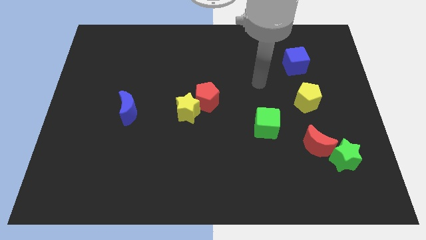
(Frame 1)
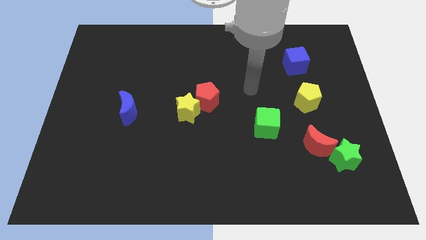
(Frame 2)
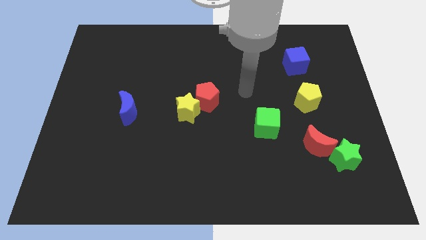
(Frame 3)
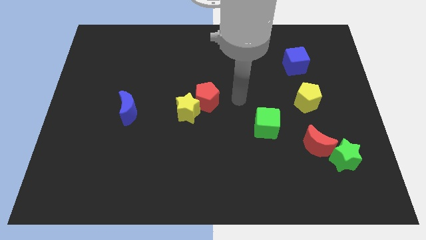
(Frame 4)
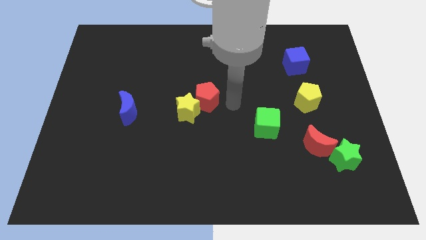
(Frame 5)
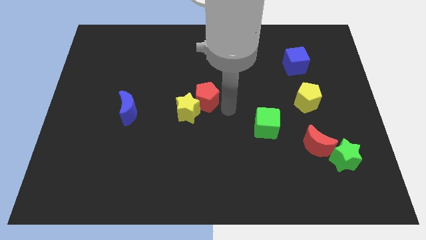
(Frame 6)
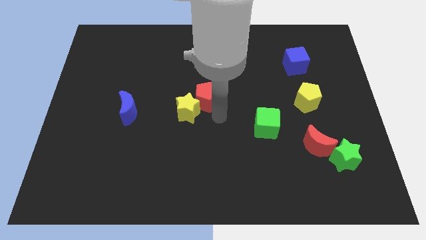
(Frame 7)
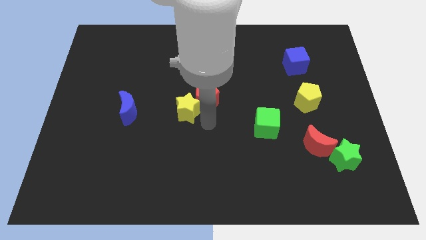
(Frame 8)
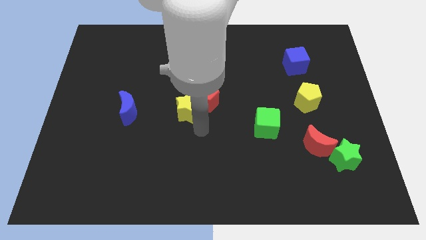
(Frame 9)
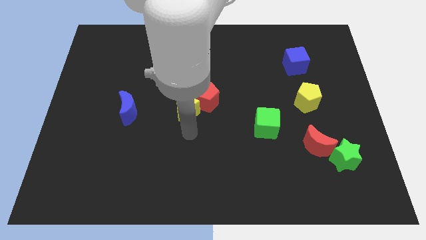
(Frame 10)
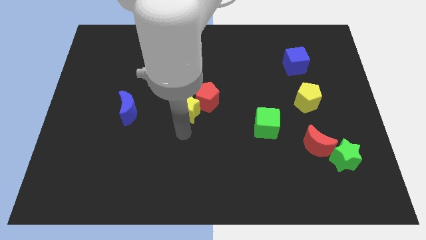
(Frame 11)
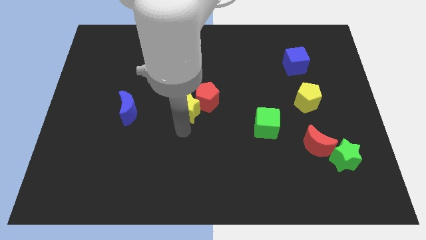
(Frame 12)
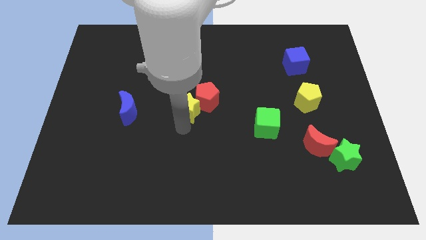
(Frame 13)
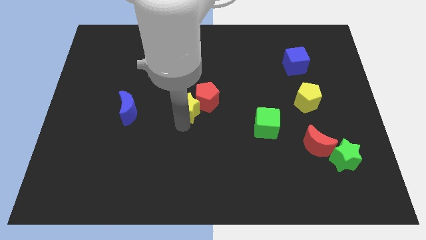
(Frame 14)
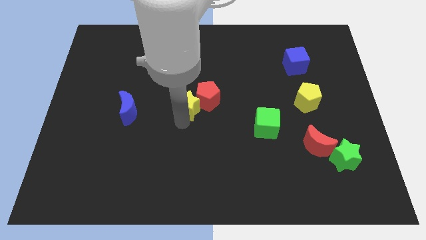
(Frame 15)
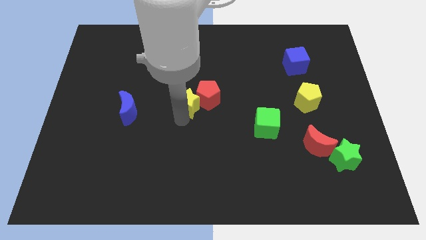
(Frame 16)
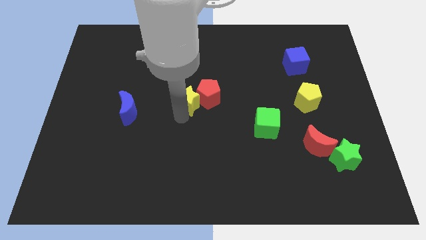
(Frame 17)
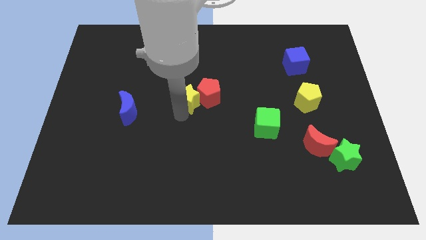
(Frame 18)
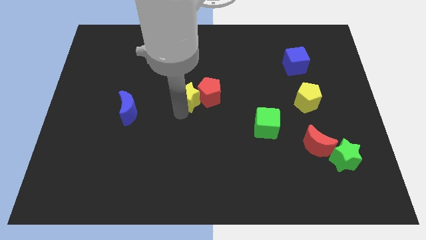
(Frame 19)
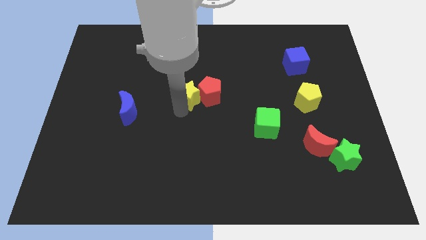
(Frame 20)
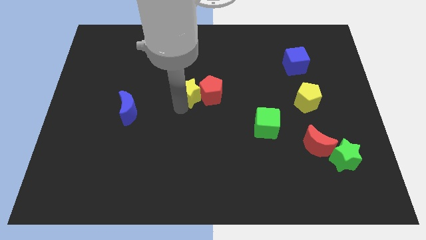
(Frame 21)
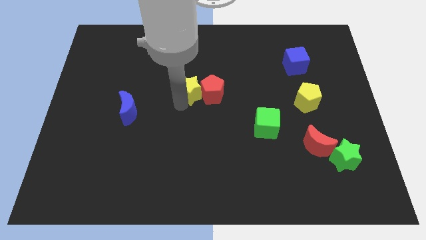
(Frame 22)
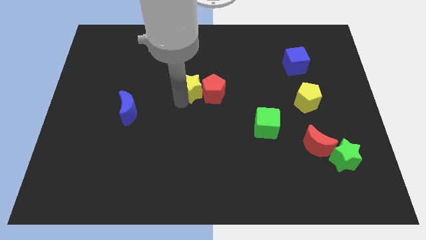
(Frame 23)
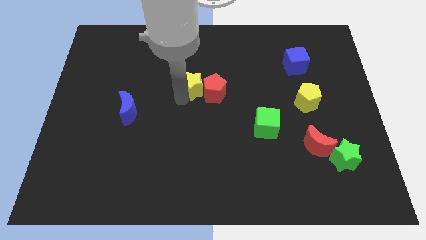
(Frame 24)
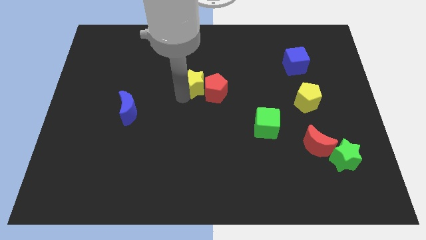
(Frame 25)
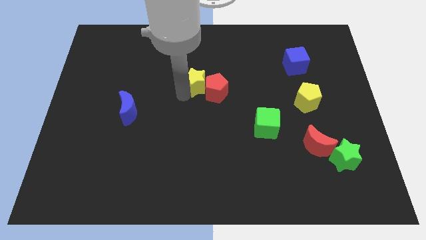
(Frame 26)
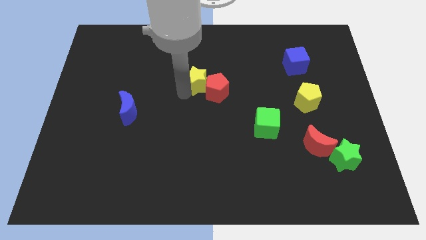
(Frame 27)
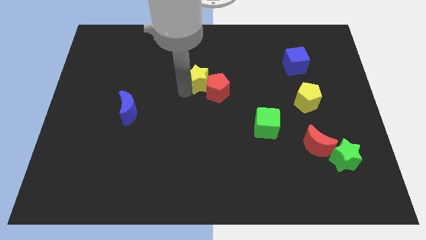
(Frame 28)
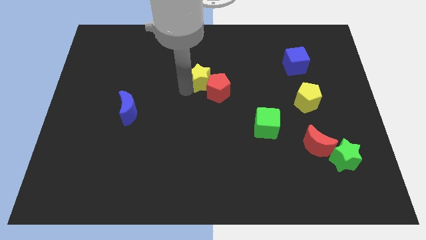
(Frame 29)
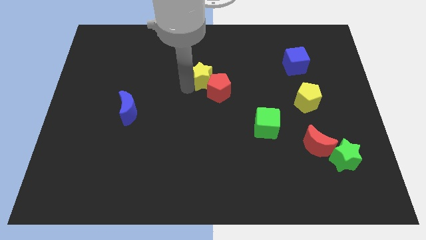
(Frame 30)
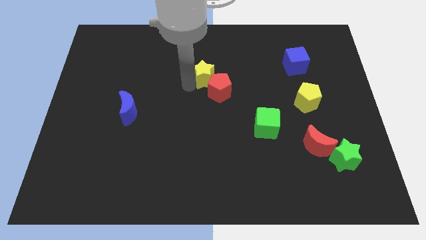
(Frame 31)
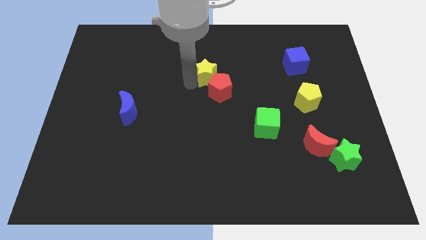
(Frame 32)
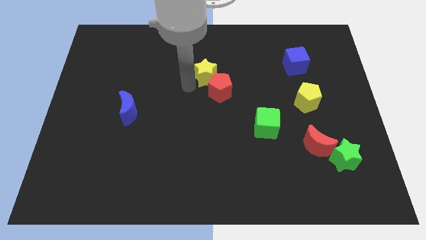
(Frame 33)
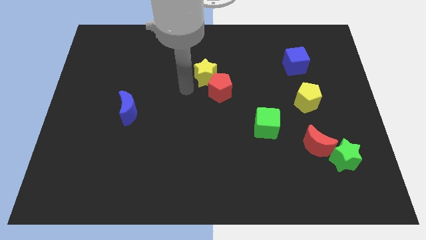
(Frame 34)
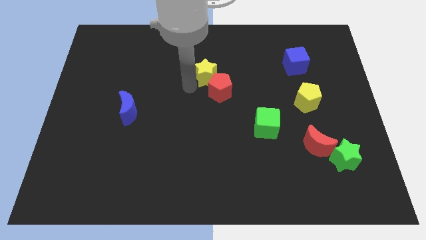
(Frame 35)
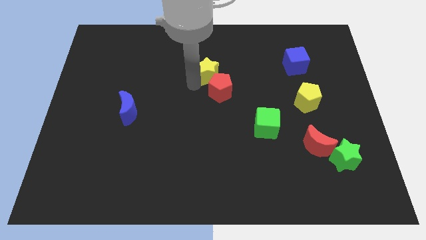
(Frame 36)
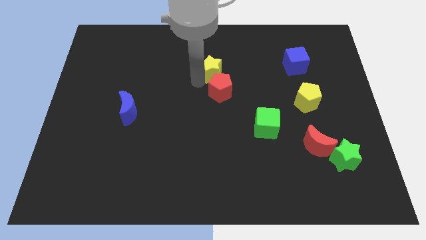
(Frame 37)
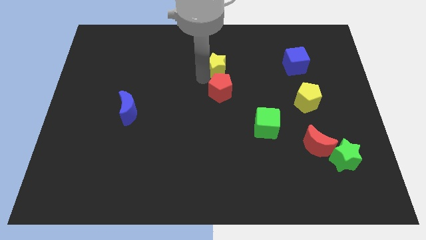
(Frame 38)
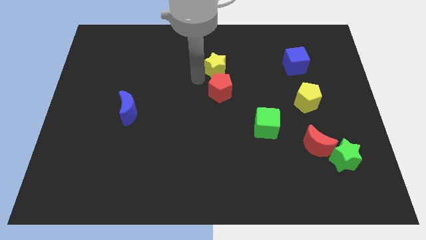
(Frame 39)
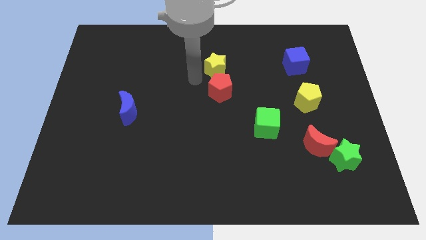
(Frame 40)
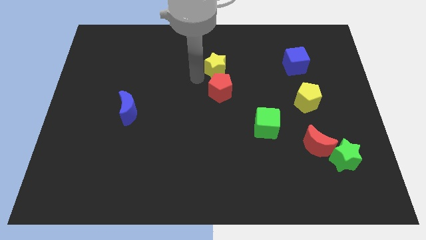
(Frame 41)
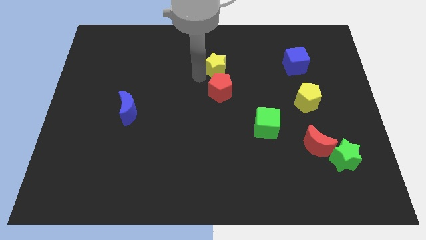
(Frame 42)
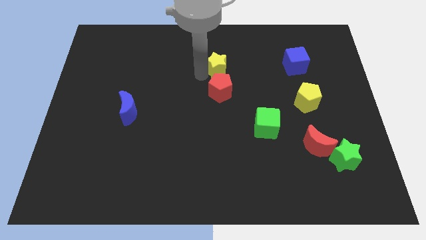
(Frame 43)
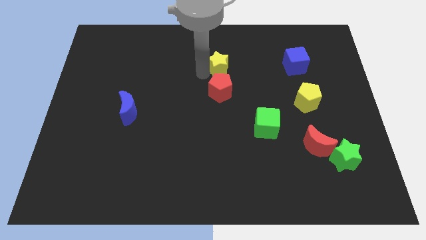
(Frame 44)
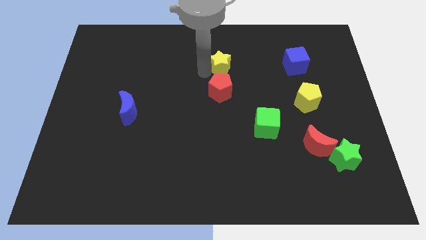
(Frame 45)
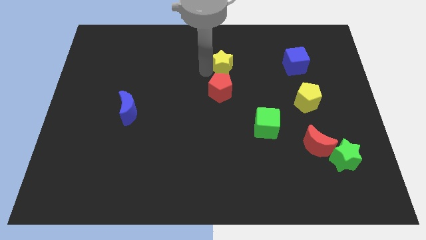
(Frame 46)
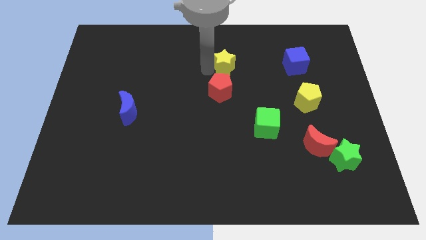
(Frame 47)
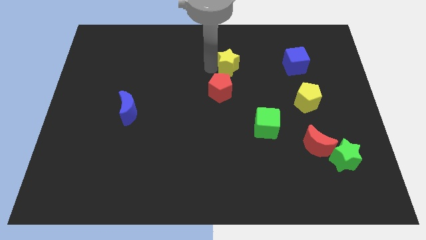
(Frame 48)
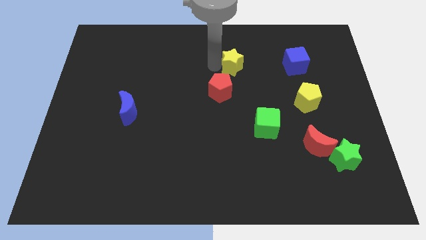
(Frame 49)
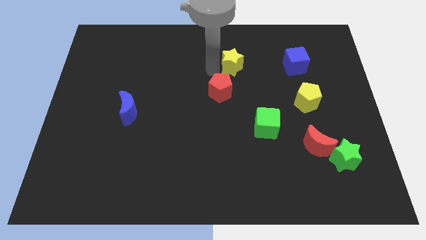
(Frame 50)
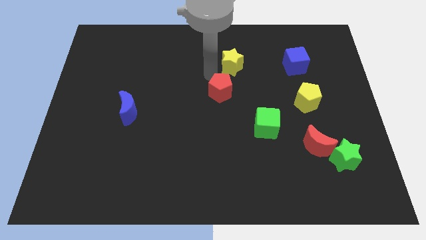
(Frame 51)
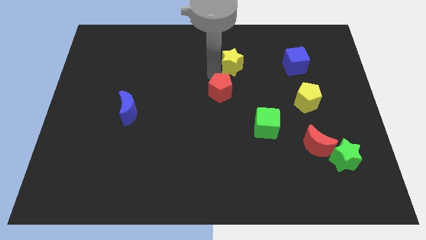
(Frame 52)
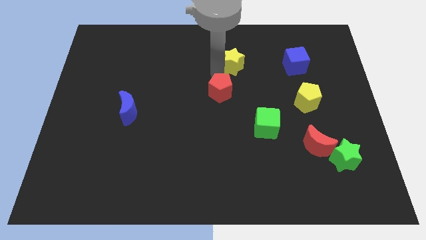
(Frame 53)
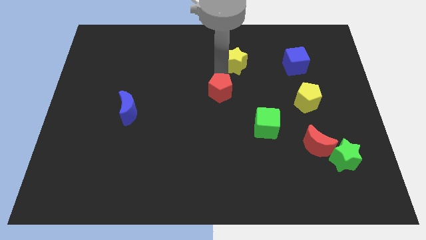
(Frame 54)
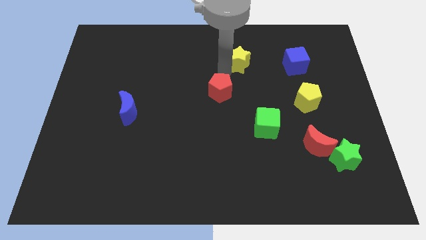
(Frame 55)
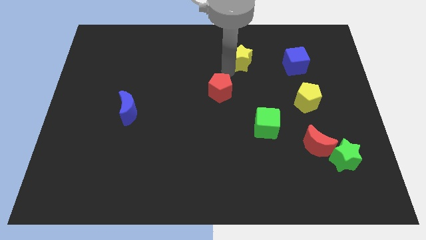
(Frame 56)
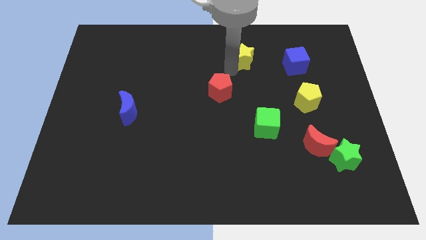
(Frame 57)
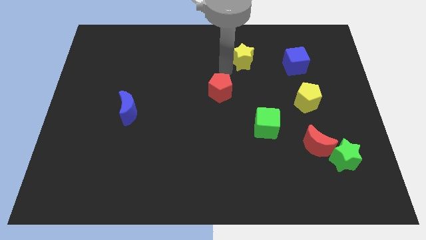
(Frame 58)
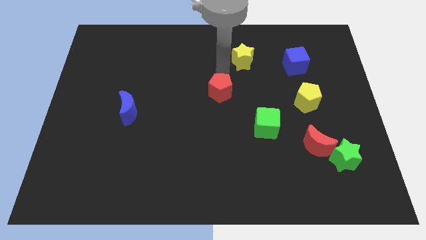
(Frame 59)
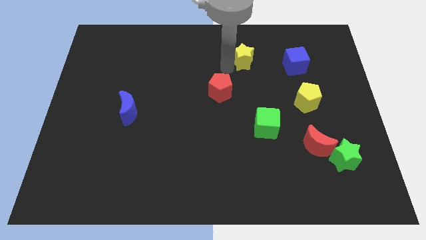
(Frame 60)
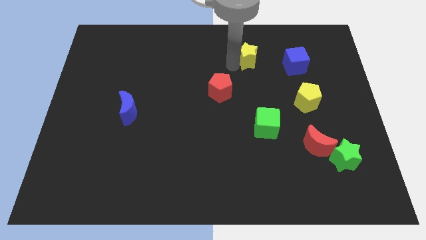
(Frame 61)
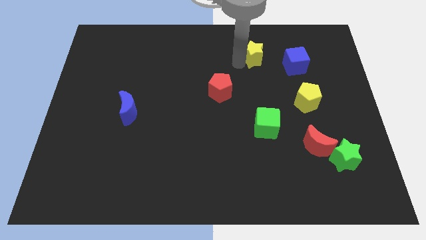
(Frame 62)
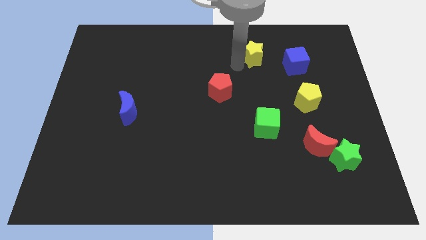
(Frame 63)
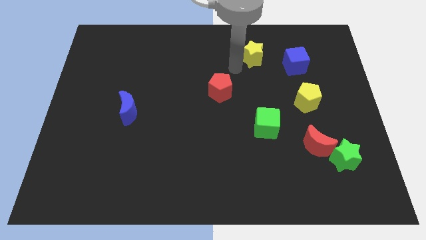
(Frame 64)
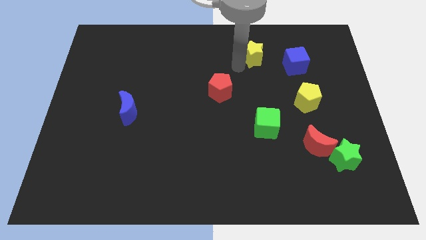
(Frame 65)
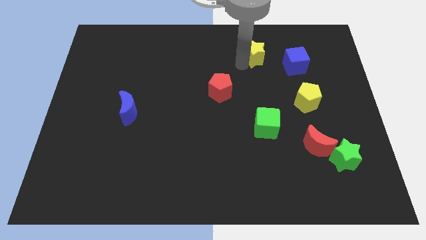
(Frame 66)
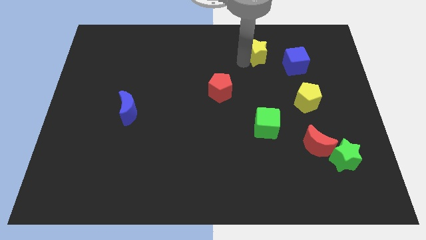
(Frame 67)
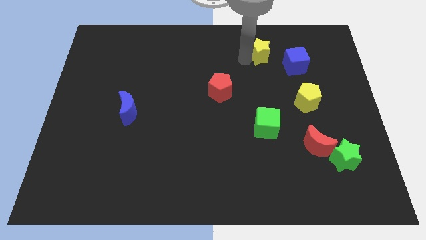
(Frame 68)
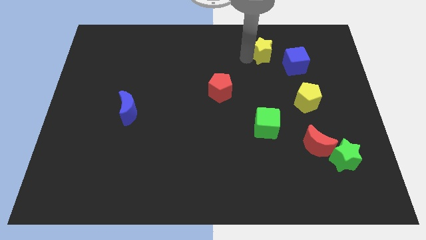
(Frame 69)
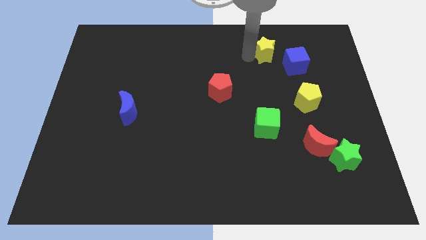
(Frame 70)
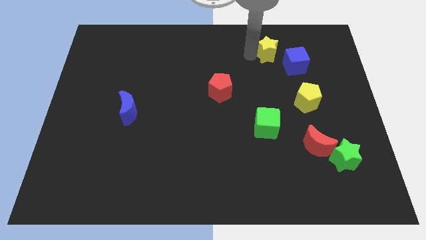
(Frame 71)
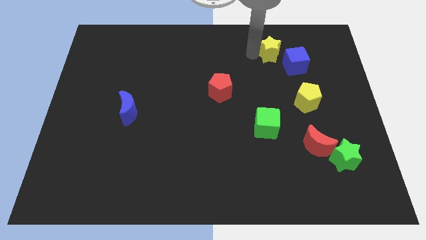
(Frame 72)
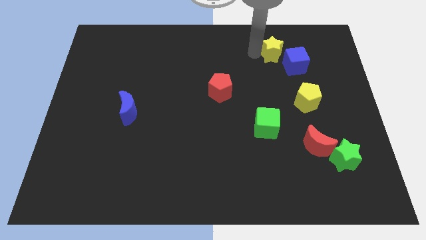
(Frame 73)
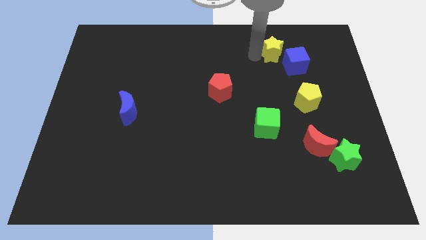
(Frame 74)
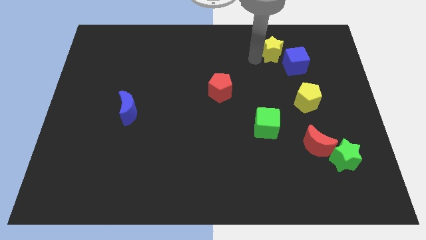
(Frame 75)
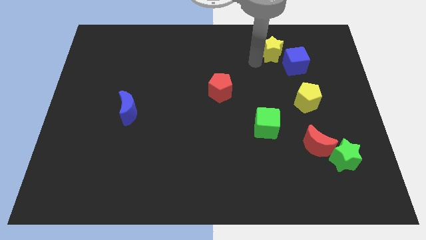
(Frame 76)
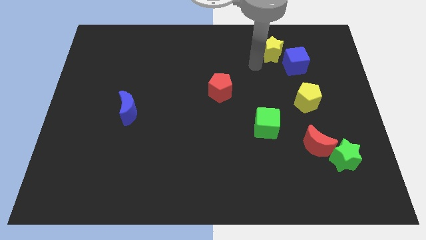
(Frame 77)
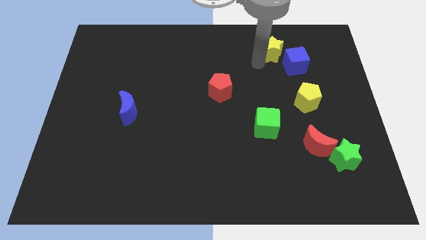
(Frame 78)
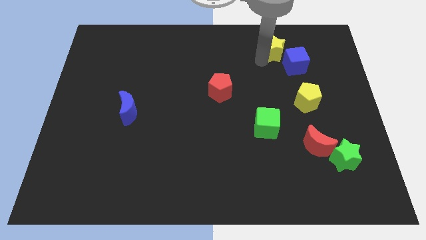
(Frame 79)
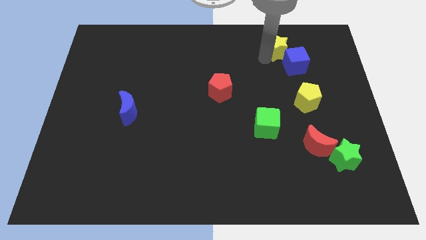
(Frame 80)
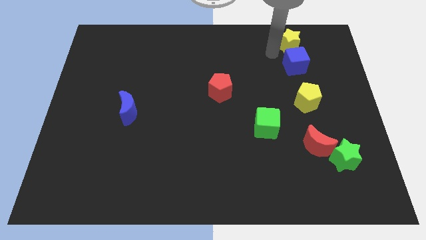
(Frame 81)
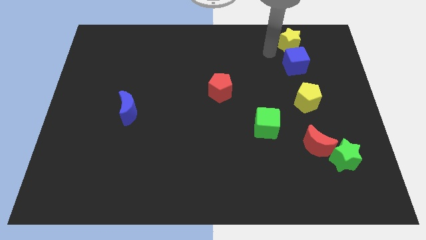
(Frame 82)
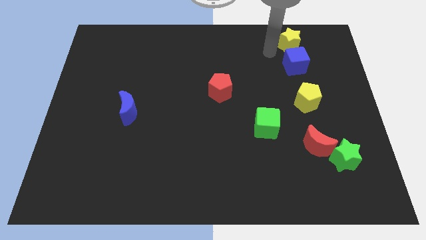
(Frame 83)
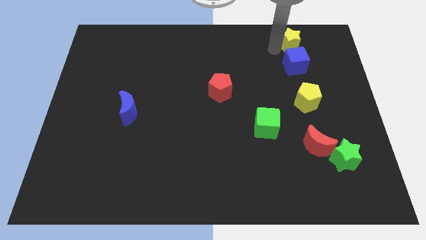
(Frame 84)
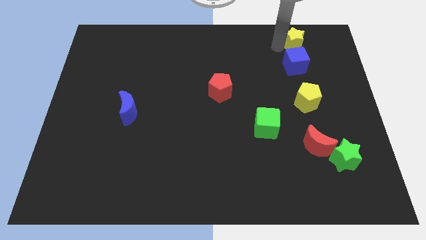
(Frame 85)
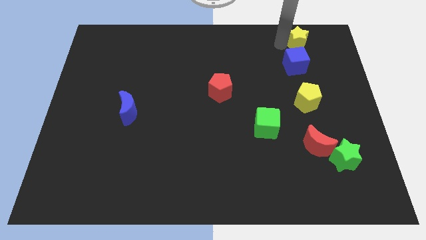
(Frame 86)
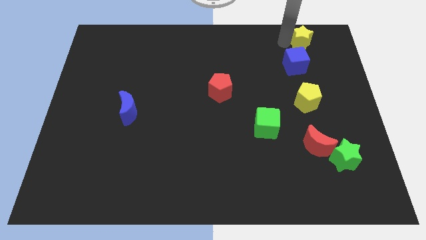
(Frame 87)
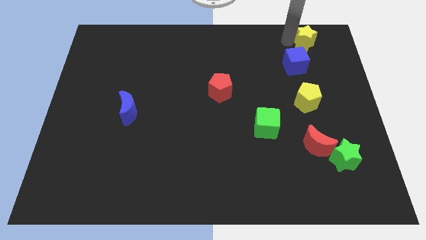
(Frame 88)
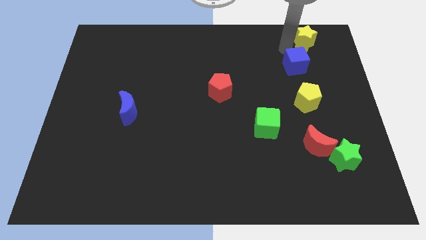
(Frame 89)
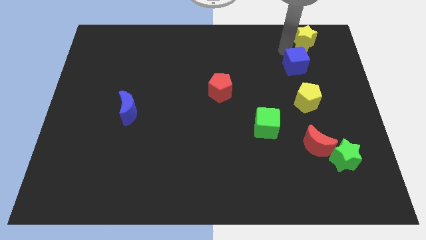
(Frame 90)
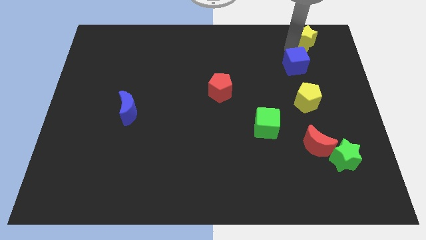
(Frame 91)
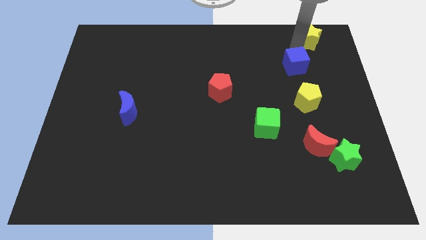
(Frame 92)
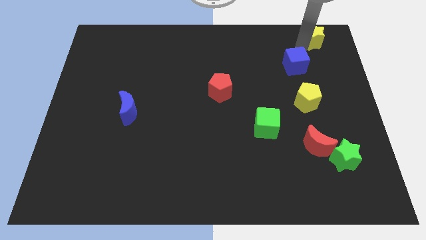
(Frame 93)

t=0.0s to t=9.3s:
slide the yellow star to the top right of the board
